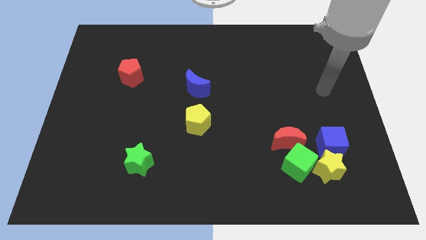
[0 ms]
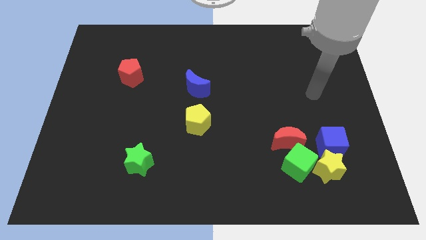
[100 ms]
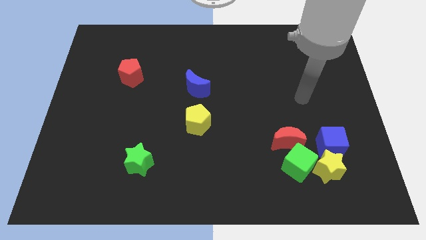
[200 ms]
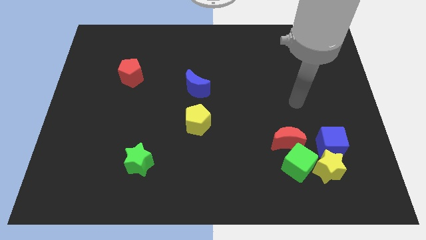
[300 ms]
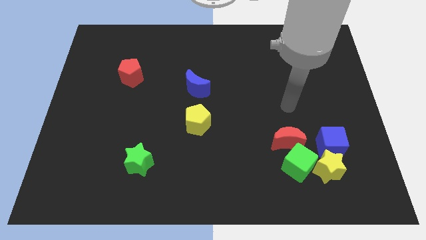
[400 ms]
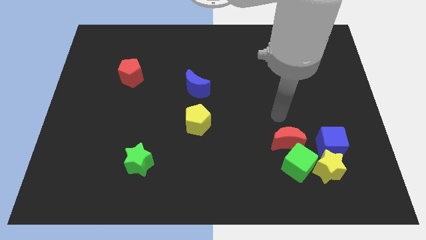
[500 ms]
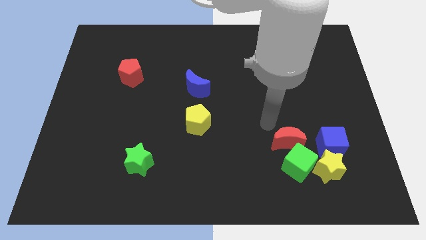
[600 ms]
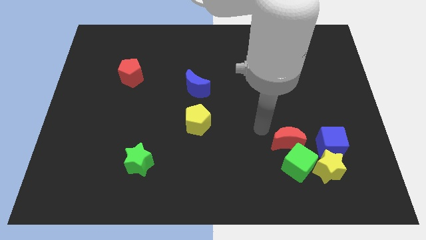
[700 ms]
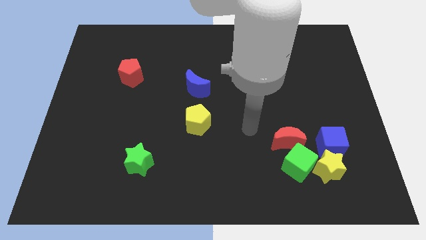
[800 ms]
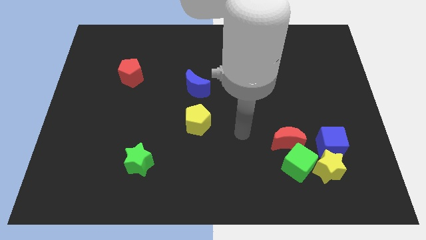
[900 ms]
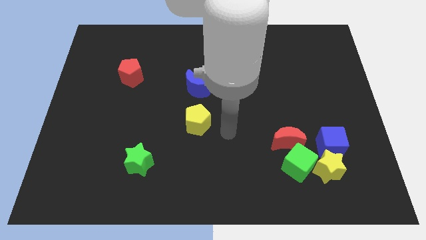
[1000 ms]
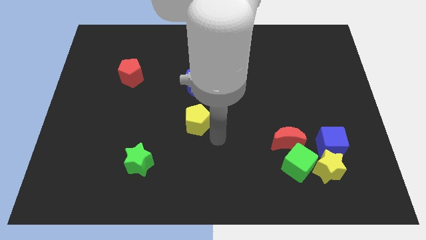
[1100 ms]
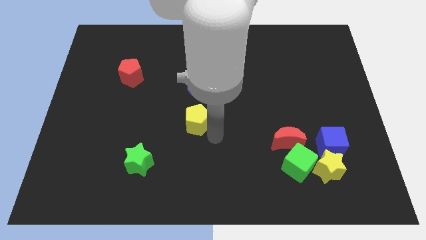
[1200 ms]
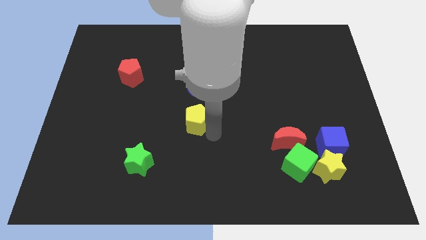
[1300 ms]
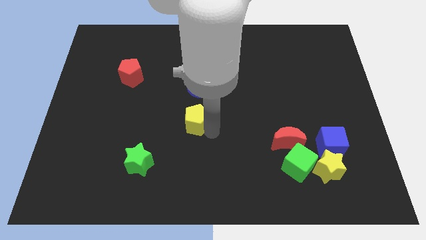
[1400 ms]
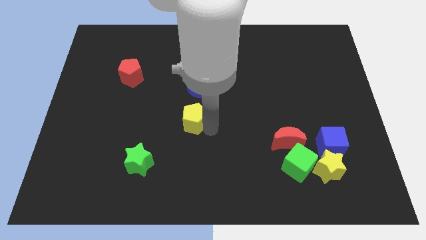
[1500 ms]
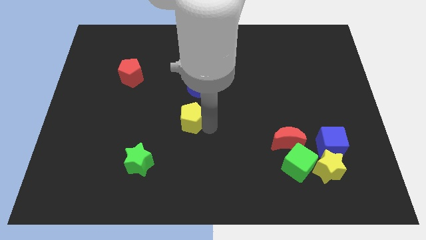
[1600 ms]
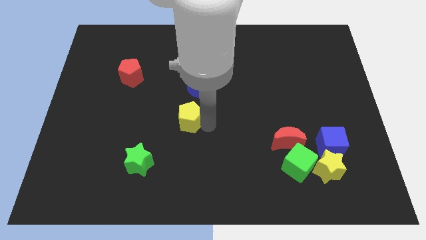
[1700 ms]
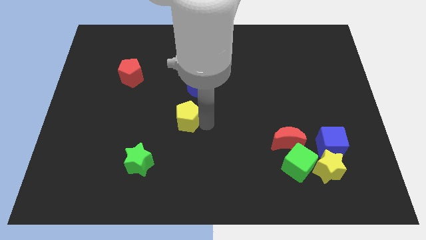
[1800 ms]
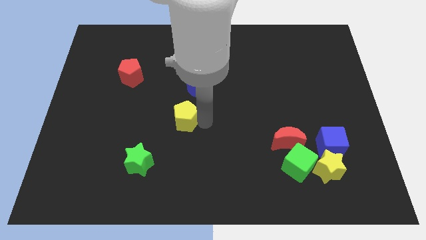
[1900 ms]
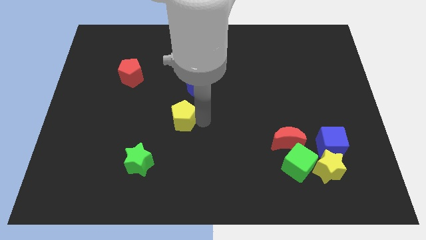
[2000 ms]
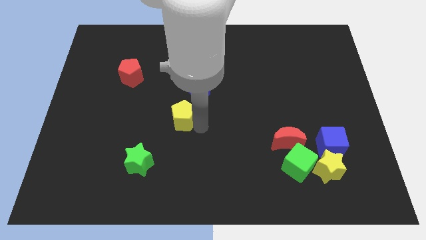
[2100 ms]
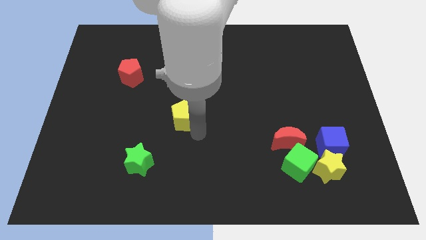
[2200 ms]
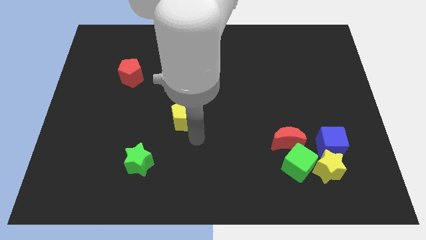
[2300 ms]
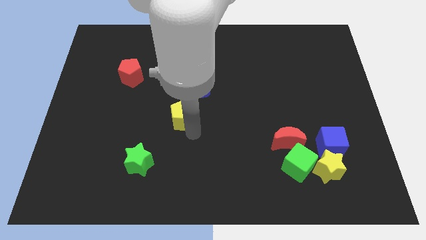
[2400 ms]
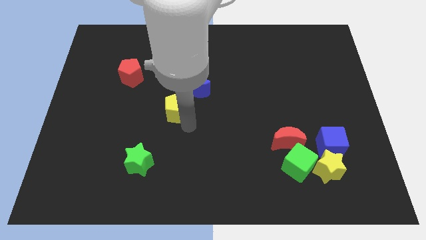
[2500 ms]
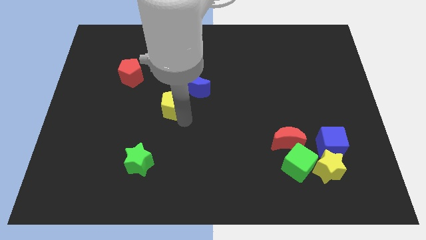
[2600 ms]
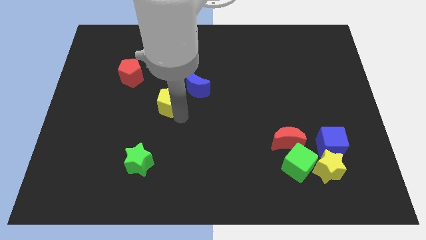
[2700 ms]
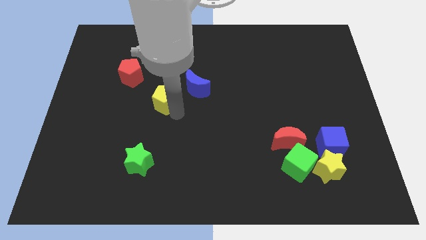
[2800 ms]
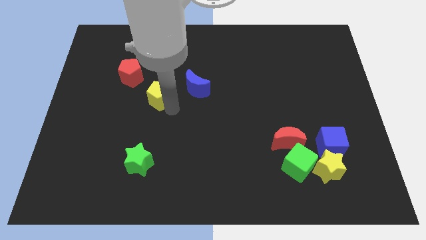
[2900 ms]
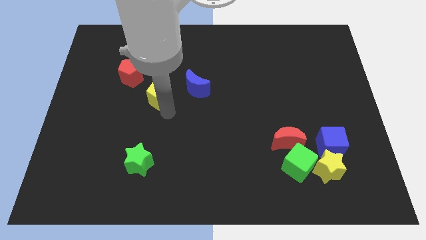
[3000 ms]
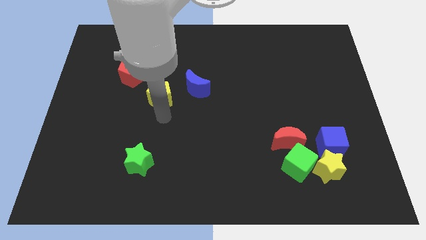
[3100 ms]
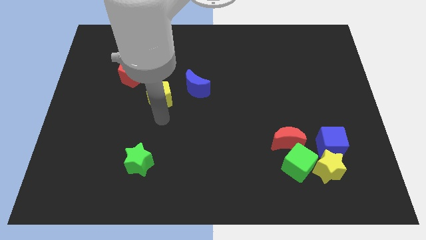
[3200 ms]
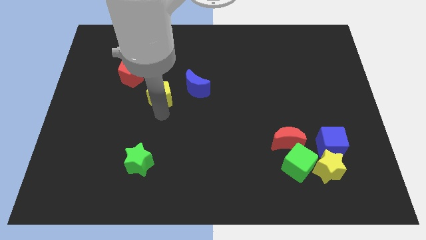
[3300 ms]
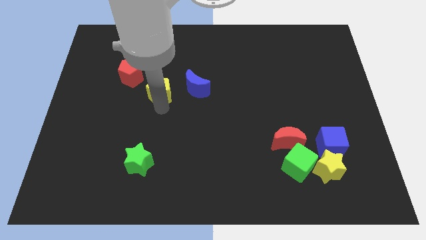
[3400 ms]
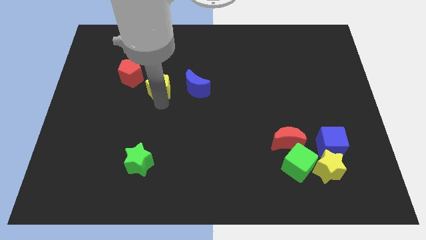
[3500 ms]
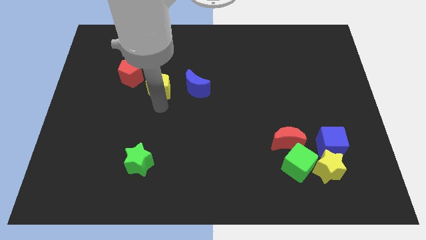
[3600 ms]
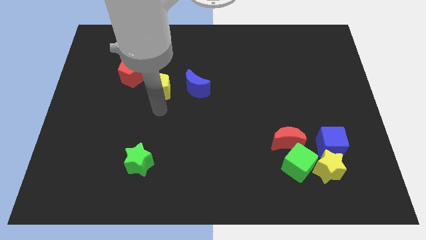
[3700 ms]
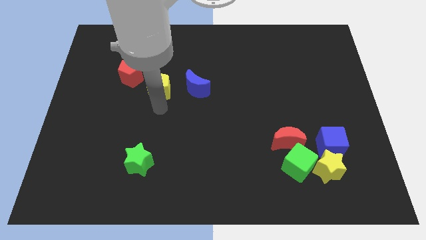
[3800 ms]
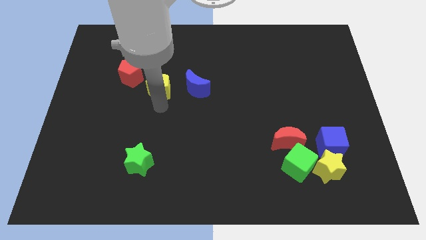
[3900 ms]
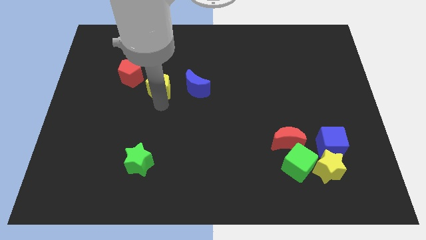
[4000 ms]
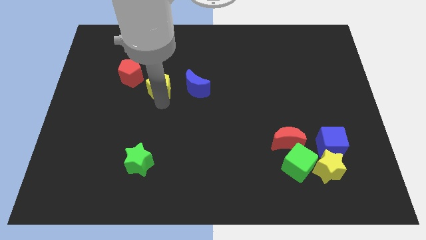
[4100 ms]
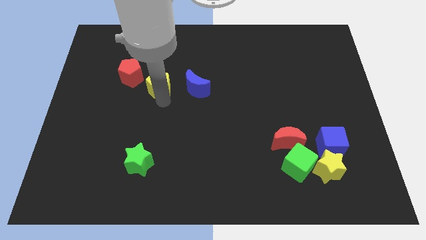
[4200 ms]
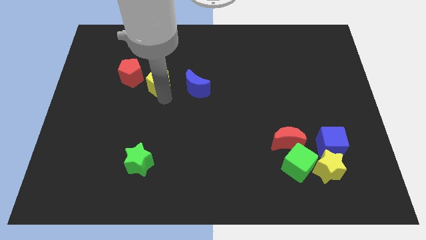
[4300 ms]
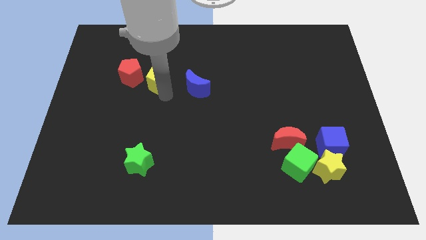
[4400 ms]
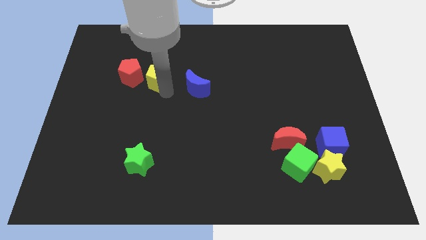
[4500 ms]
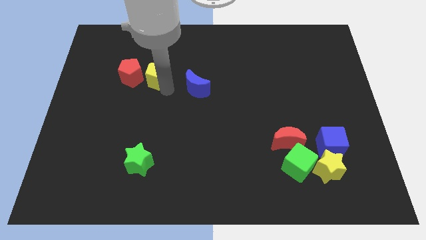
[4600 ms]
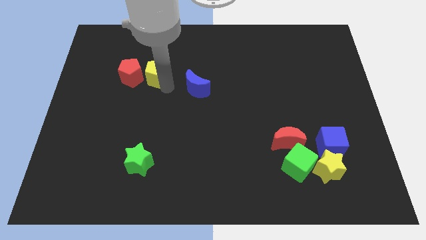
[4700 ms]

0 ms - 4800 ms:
move the yellow pentagon diagonally up and to the right of the red pentagon

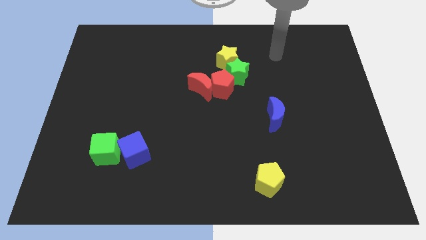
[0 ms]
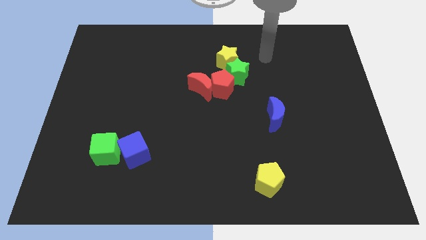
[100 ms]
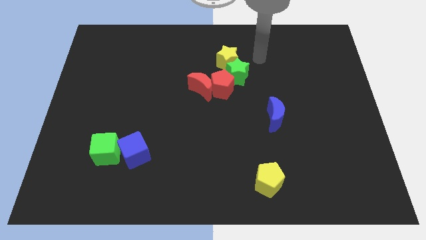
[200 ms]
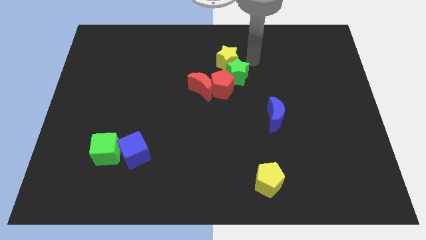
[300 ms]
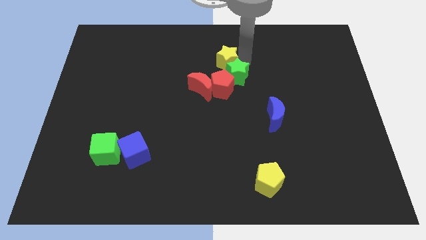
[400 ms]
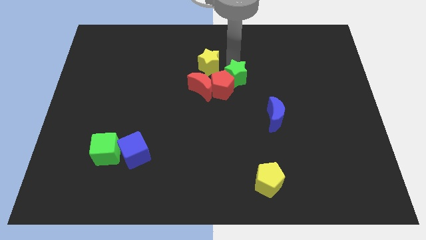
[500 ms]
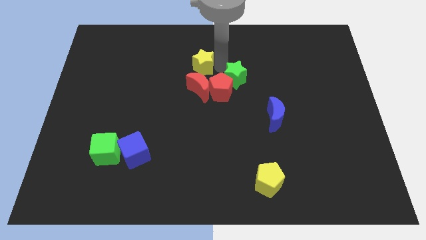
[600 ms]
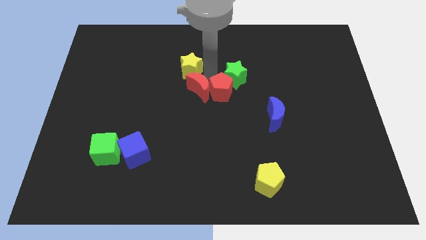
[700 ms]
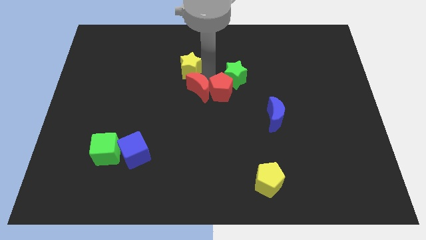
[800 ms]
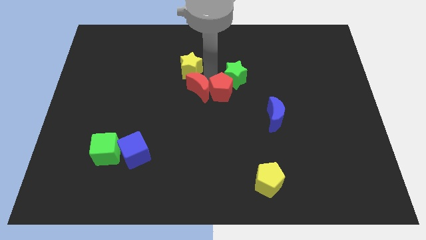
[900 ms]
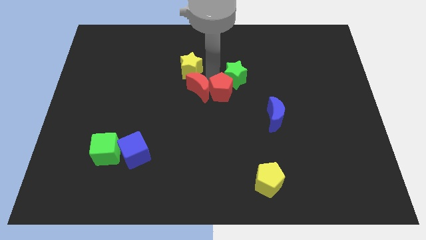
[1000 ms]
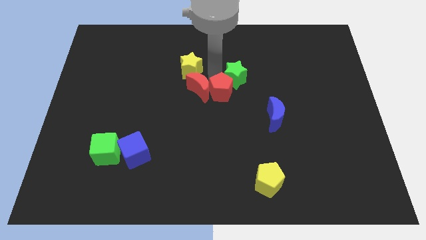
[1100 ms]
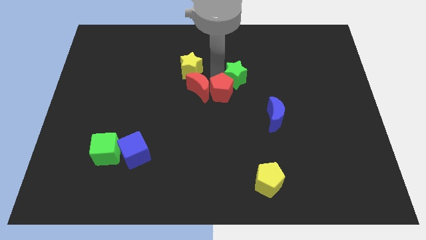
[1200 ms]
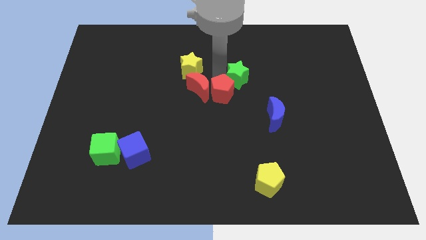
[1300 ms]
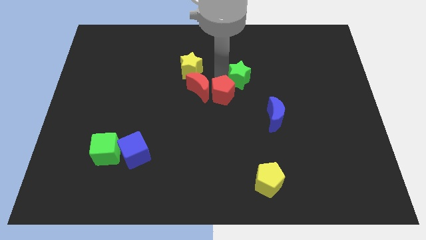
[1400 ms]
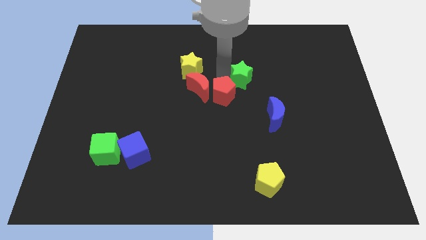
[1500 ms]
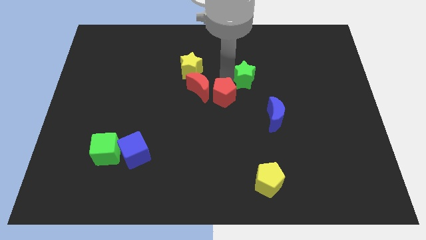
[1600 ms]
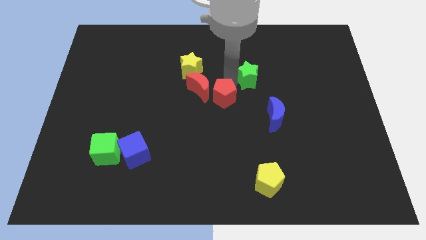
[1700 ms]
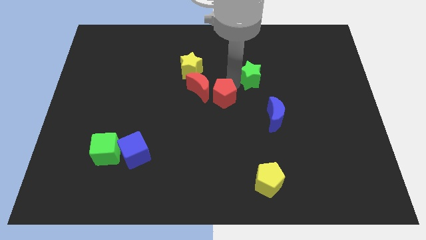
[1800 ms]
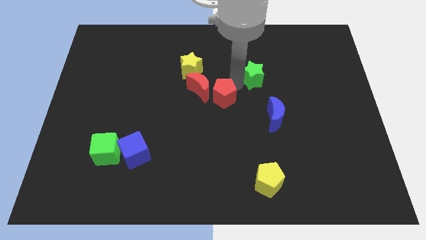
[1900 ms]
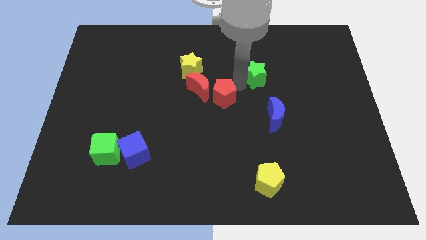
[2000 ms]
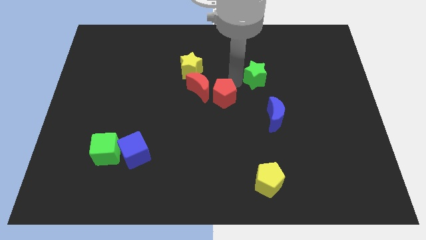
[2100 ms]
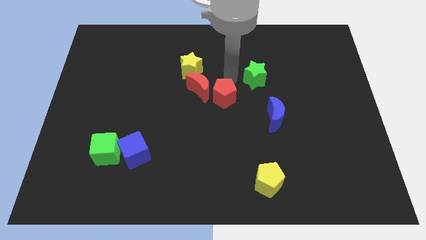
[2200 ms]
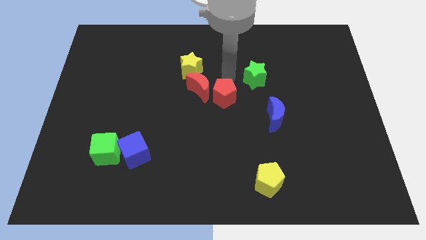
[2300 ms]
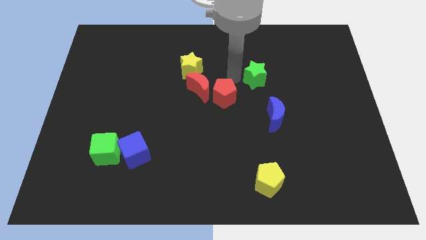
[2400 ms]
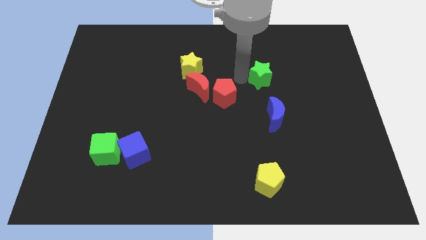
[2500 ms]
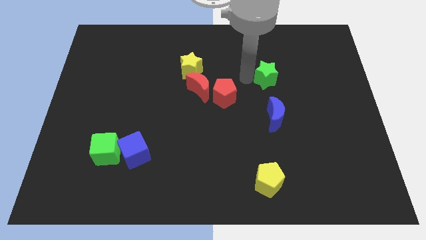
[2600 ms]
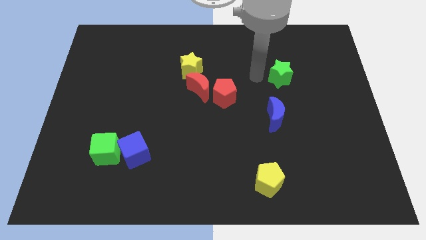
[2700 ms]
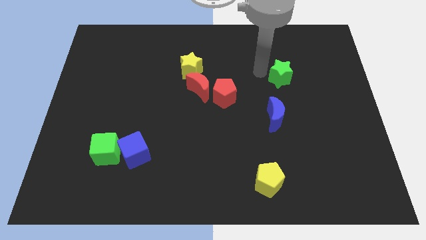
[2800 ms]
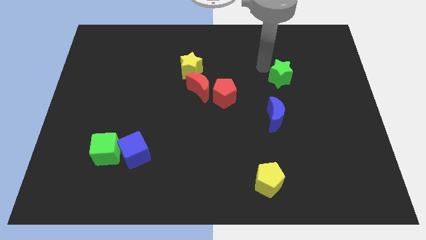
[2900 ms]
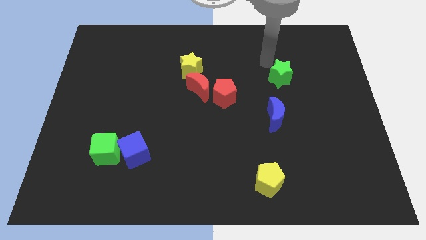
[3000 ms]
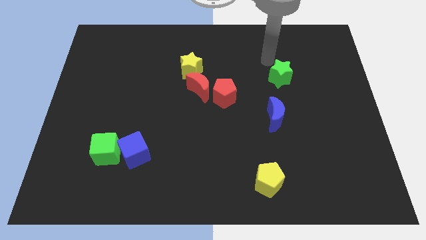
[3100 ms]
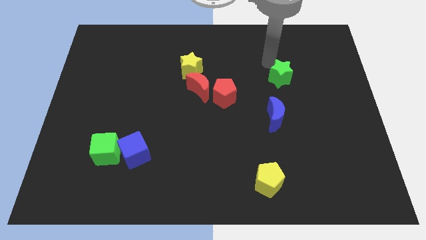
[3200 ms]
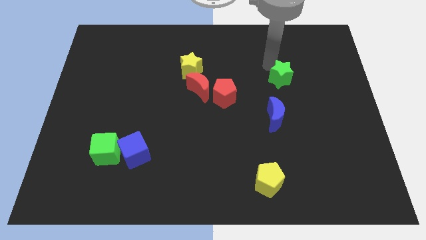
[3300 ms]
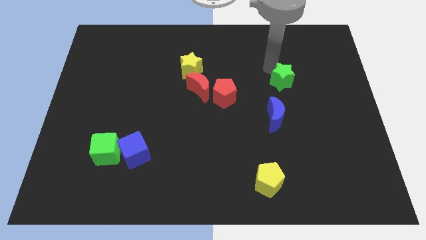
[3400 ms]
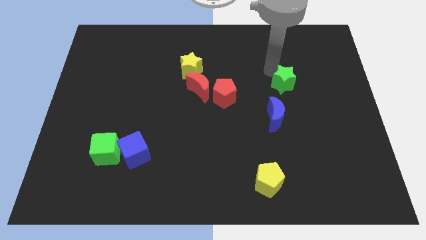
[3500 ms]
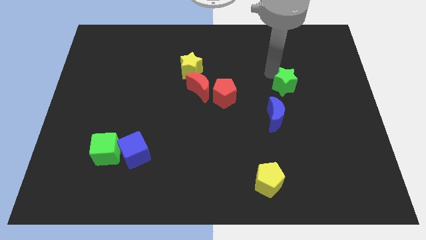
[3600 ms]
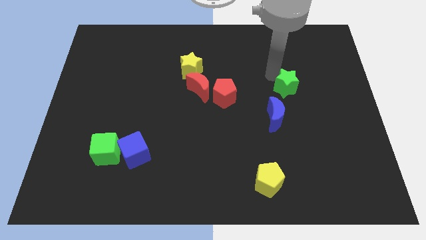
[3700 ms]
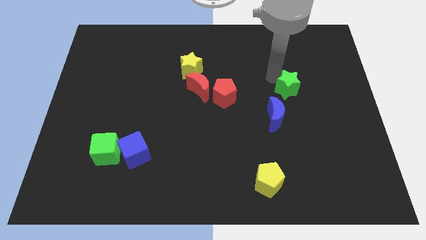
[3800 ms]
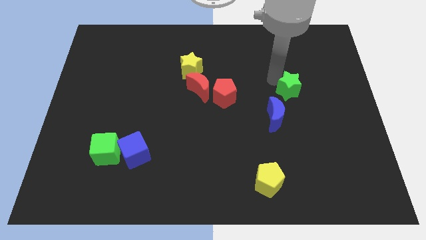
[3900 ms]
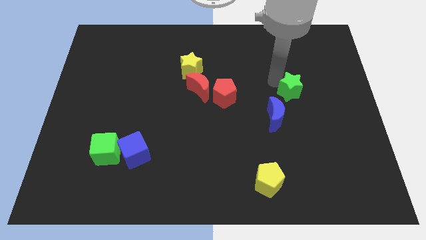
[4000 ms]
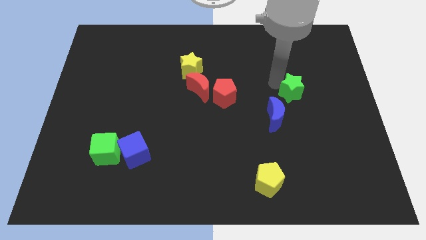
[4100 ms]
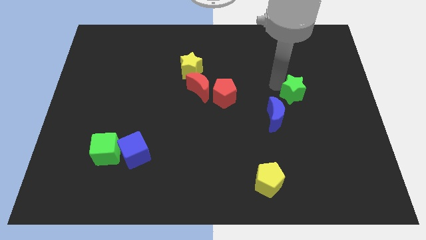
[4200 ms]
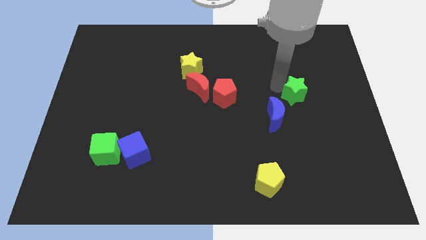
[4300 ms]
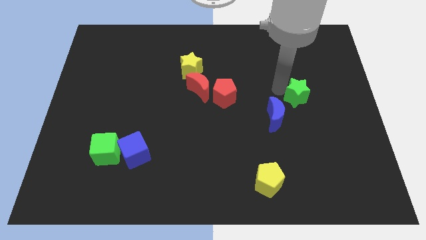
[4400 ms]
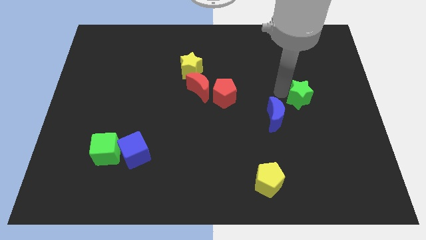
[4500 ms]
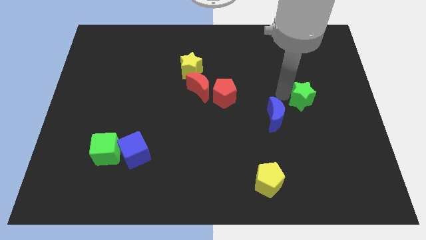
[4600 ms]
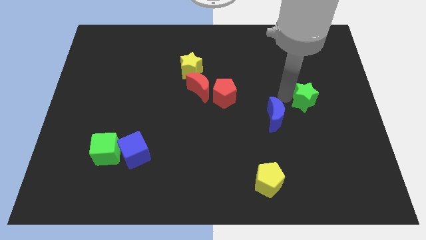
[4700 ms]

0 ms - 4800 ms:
put the green star right of the blue moon
